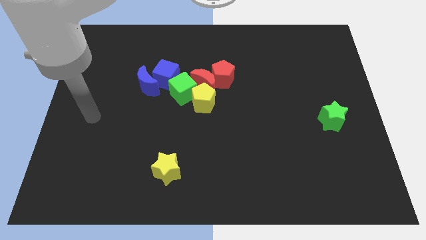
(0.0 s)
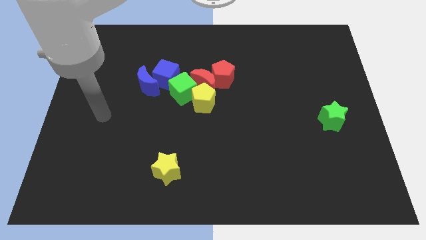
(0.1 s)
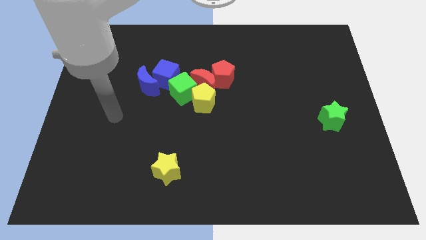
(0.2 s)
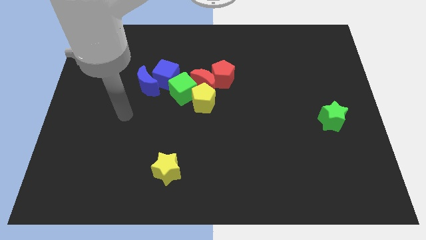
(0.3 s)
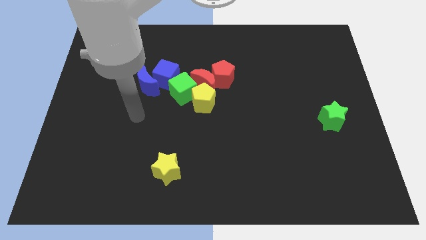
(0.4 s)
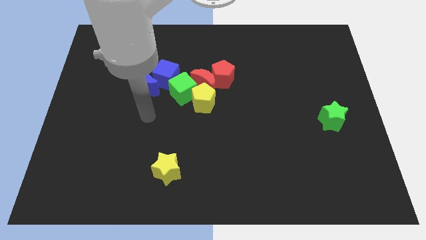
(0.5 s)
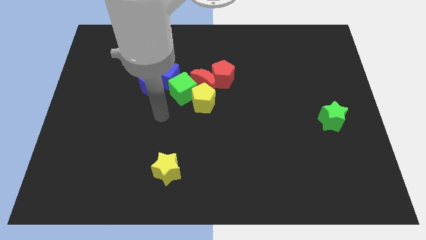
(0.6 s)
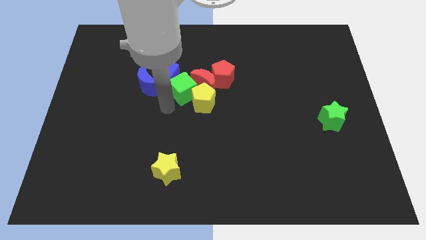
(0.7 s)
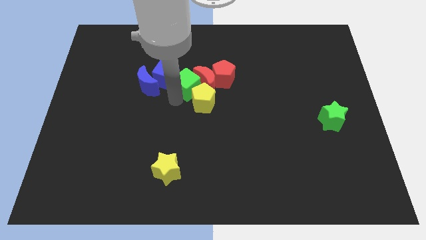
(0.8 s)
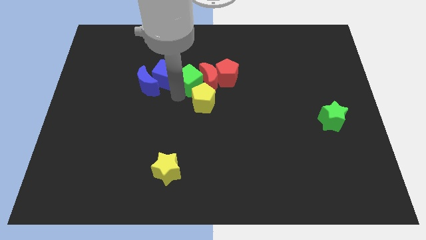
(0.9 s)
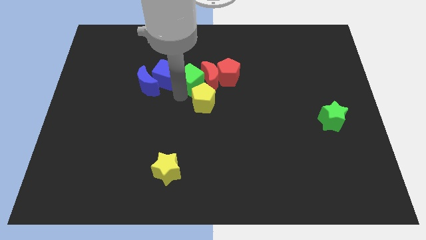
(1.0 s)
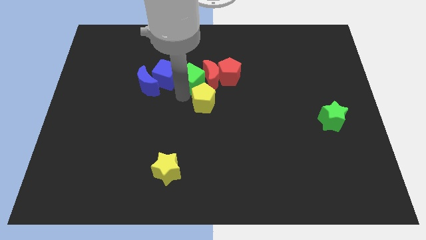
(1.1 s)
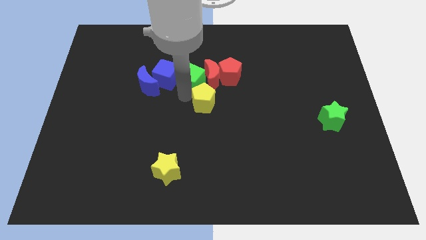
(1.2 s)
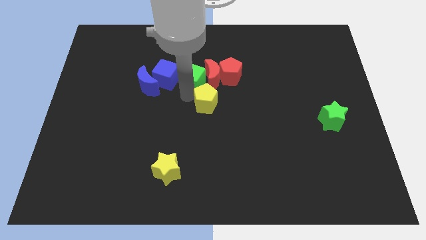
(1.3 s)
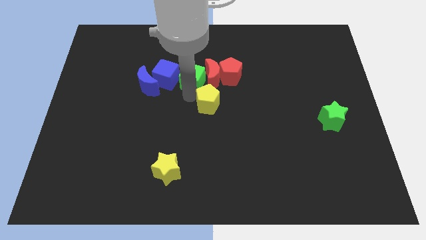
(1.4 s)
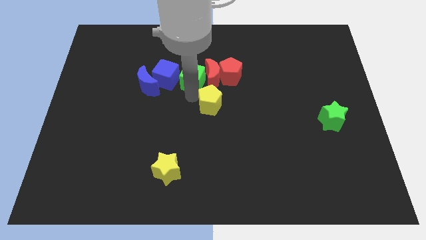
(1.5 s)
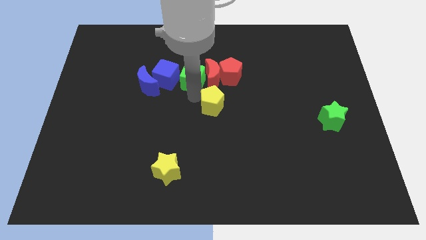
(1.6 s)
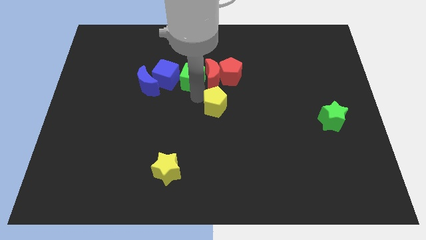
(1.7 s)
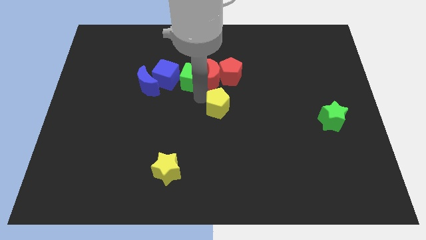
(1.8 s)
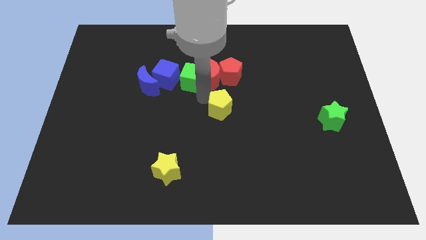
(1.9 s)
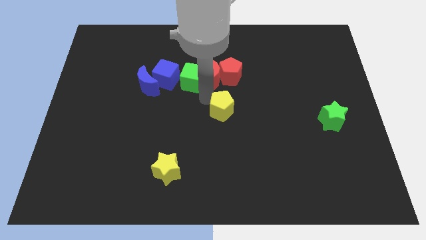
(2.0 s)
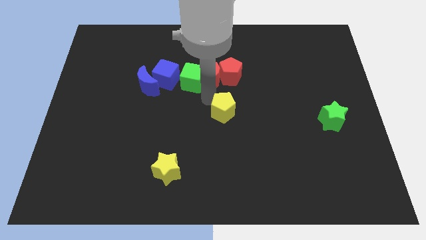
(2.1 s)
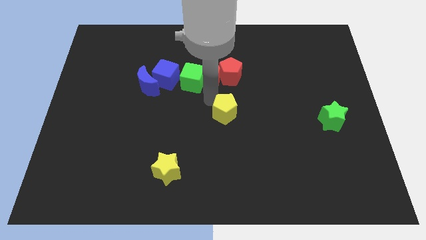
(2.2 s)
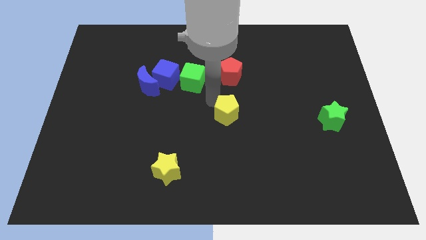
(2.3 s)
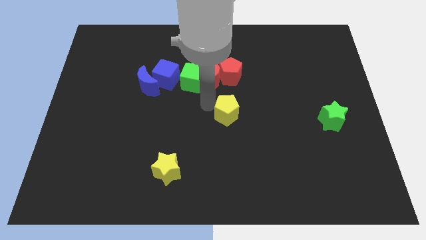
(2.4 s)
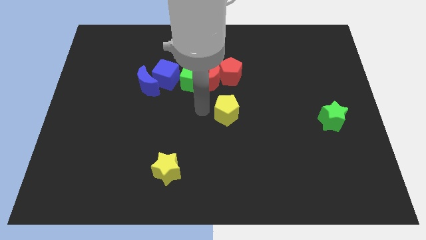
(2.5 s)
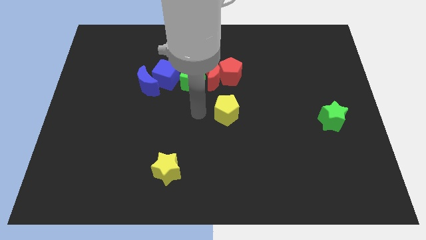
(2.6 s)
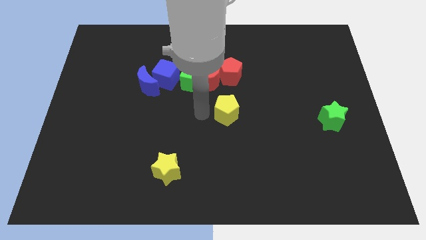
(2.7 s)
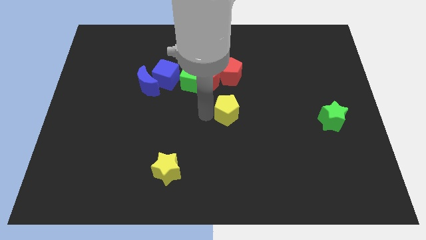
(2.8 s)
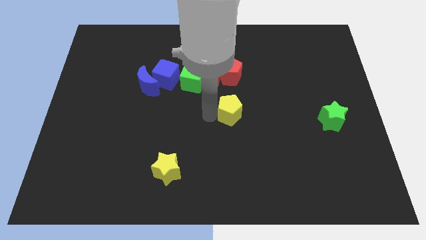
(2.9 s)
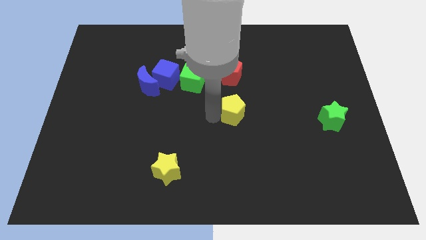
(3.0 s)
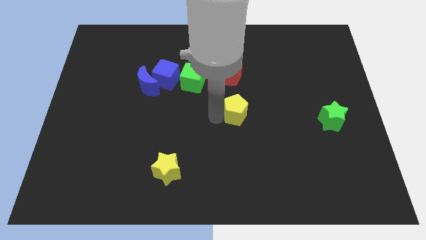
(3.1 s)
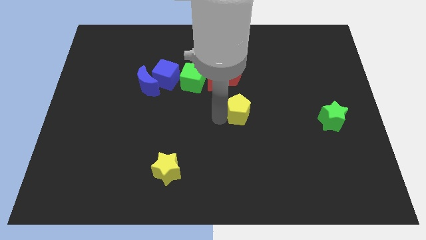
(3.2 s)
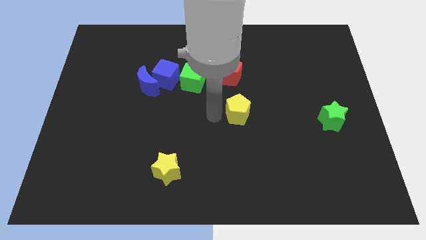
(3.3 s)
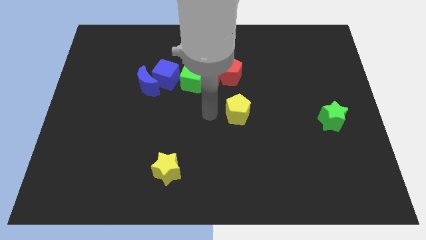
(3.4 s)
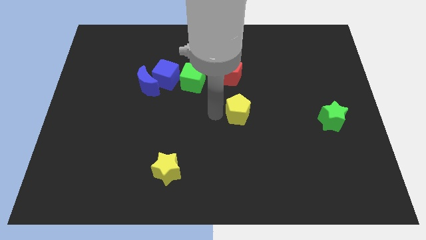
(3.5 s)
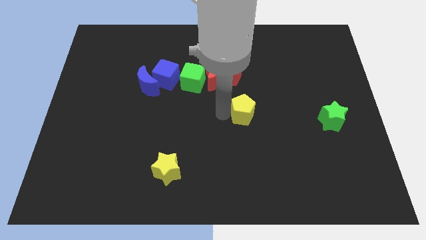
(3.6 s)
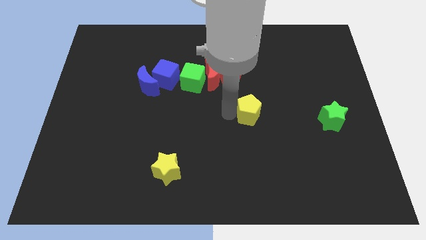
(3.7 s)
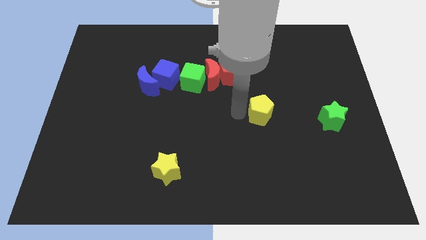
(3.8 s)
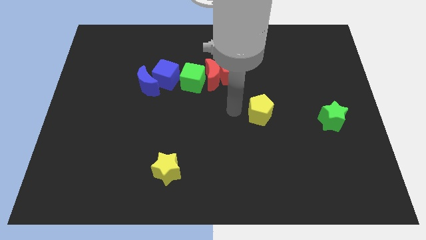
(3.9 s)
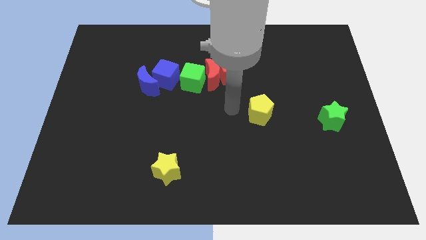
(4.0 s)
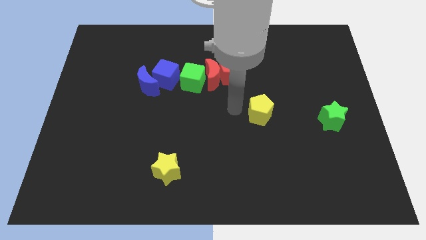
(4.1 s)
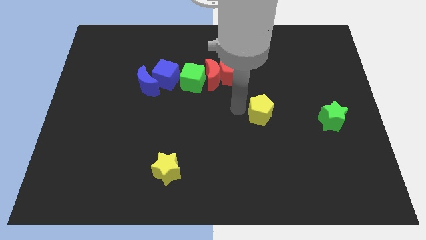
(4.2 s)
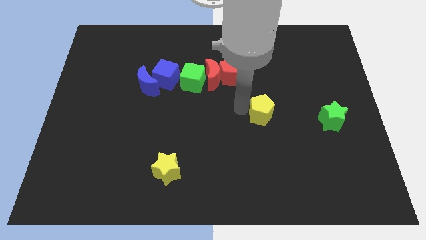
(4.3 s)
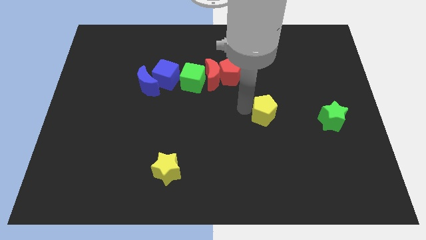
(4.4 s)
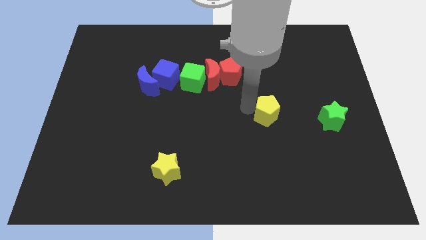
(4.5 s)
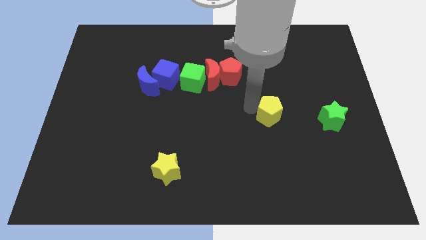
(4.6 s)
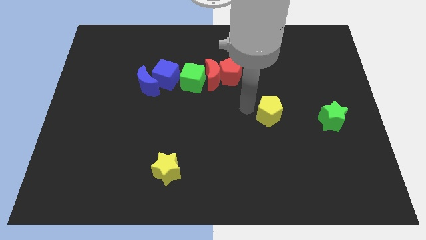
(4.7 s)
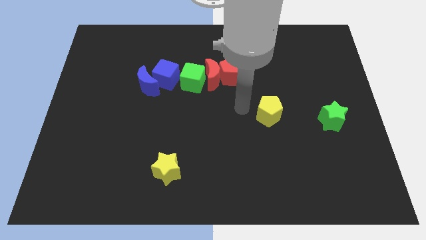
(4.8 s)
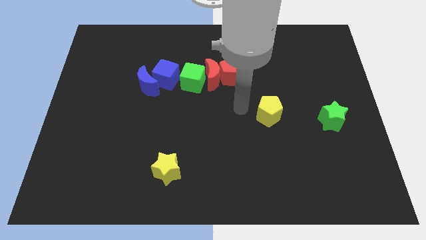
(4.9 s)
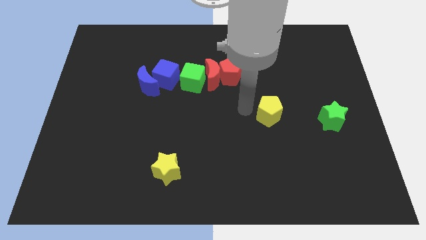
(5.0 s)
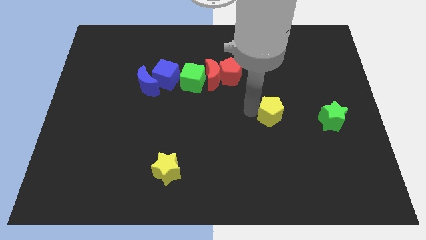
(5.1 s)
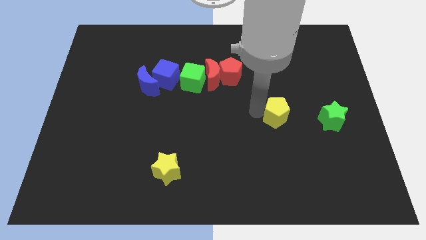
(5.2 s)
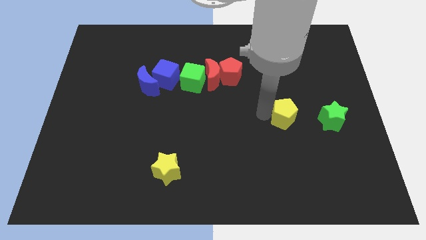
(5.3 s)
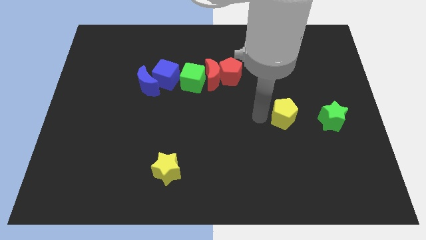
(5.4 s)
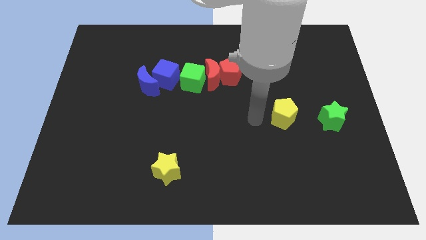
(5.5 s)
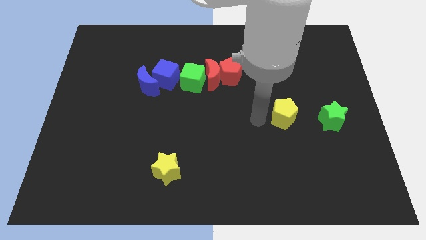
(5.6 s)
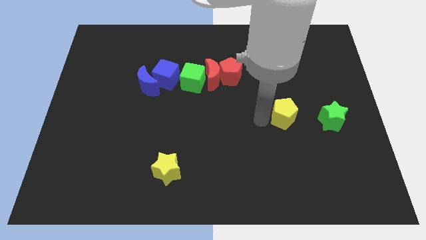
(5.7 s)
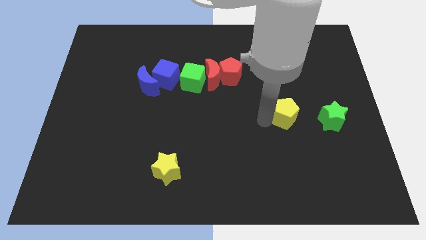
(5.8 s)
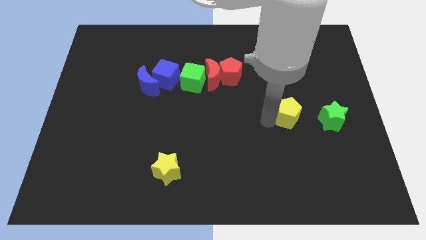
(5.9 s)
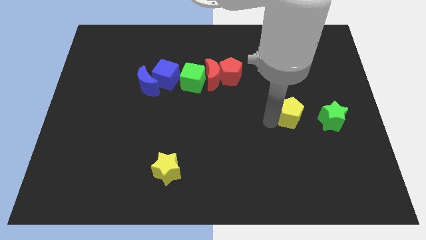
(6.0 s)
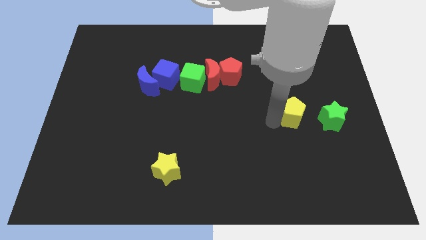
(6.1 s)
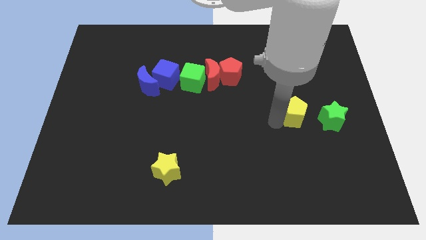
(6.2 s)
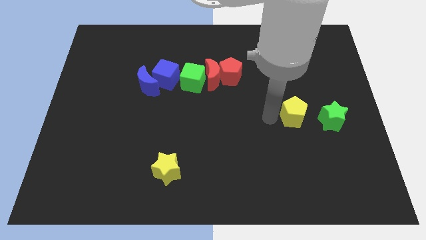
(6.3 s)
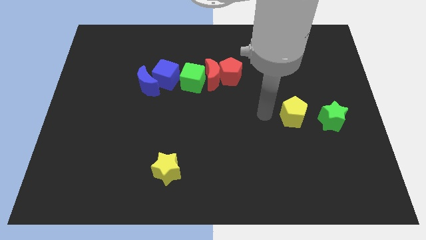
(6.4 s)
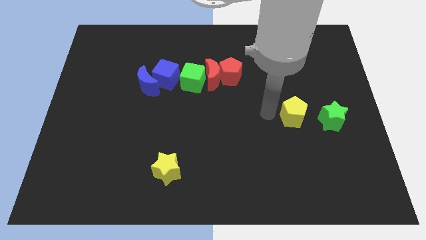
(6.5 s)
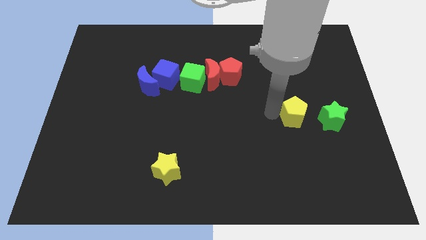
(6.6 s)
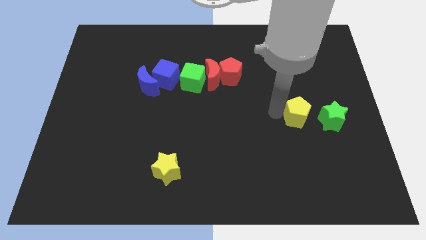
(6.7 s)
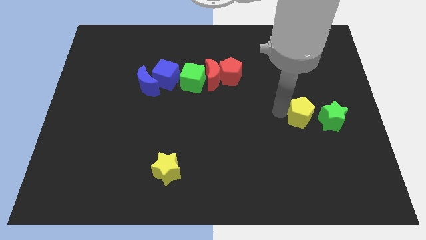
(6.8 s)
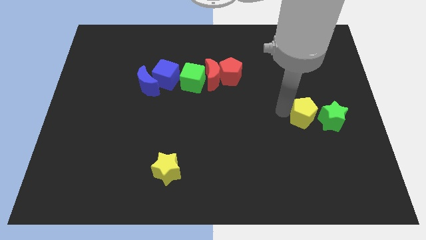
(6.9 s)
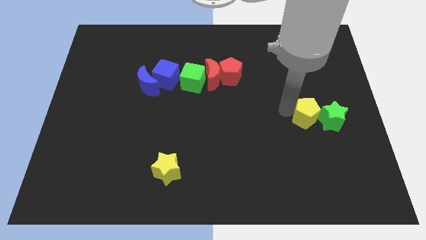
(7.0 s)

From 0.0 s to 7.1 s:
move the yellow pentagon close to the green star

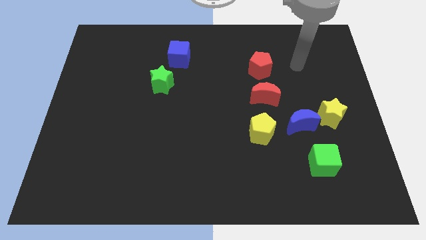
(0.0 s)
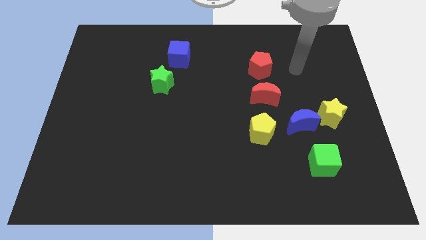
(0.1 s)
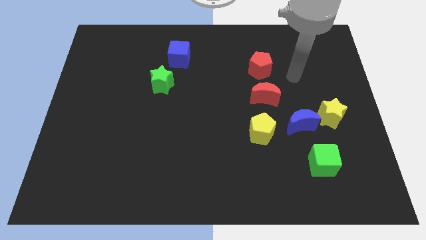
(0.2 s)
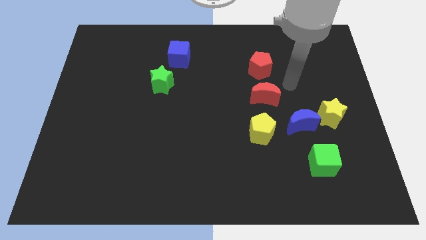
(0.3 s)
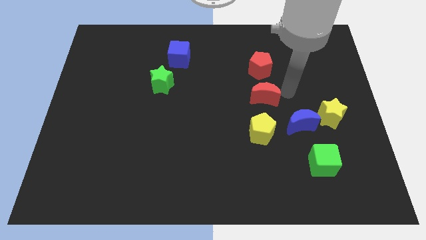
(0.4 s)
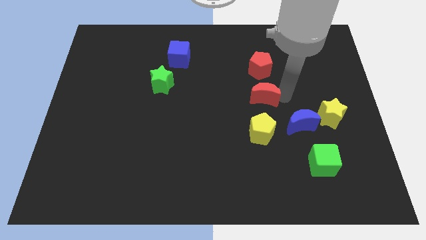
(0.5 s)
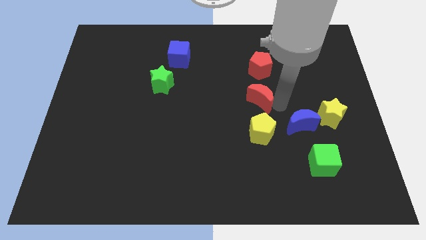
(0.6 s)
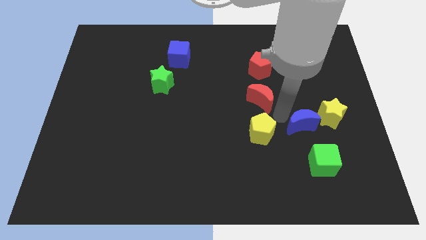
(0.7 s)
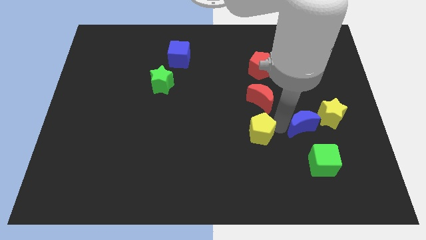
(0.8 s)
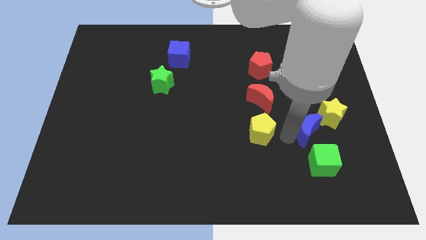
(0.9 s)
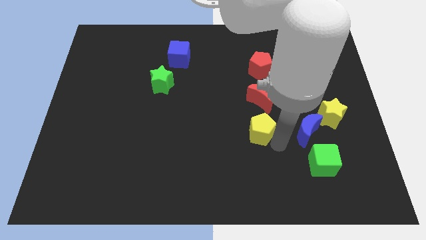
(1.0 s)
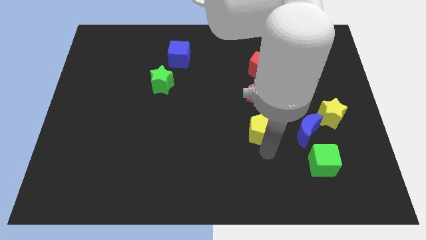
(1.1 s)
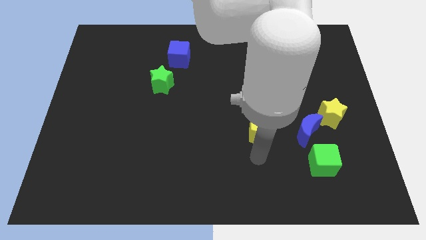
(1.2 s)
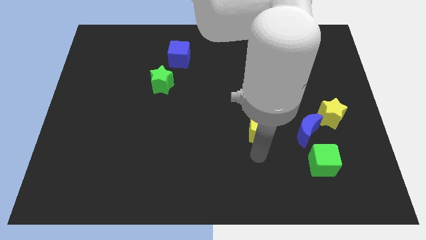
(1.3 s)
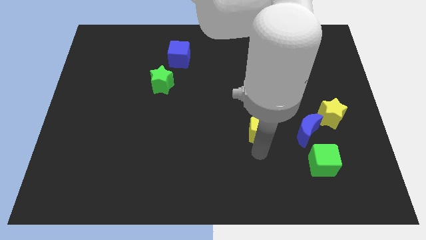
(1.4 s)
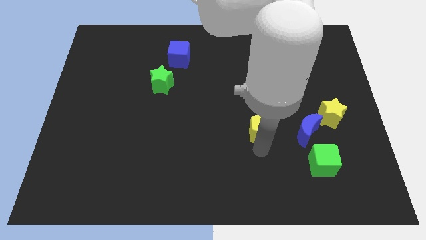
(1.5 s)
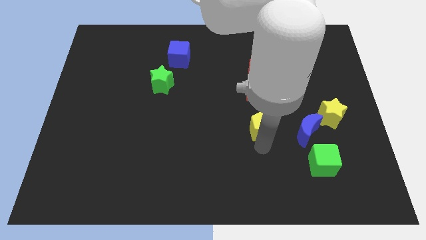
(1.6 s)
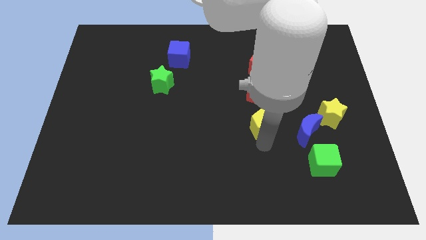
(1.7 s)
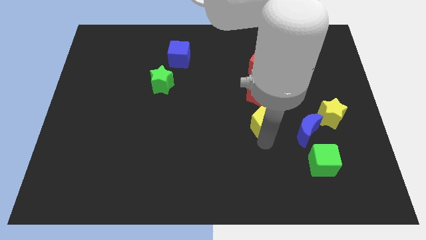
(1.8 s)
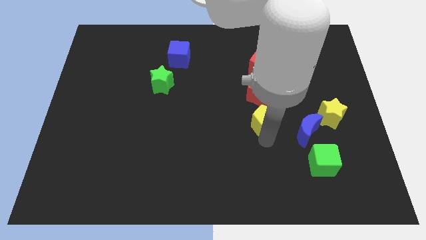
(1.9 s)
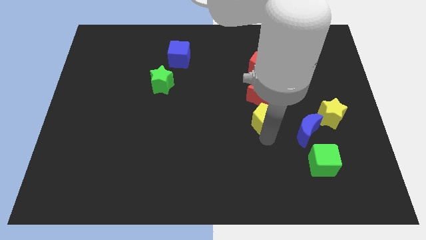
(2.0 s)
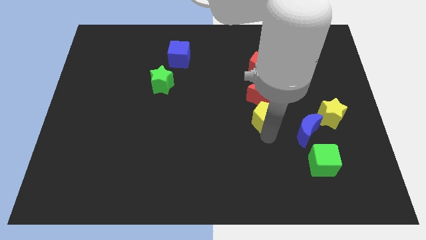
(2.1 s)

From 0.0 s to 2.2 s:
move the yellow pentagon to the red moon
